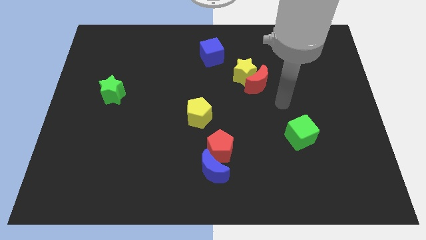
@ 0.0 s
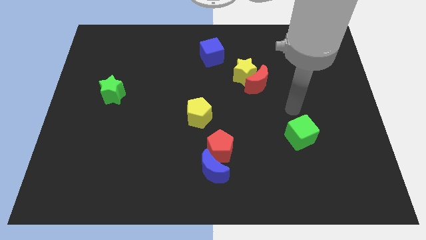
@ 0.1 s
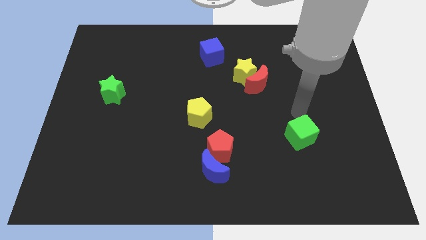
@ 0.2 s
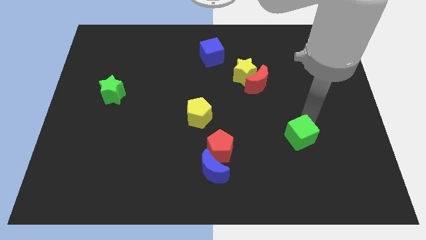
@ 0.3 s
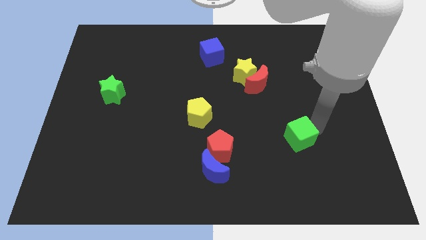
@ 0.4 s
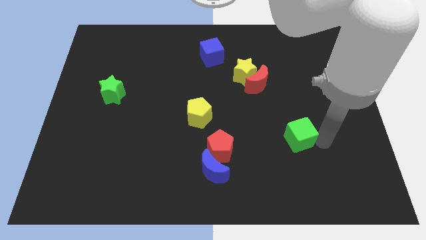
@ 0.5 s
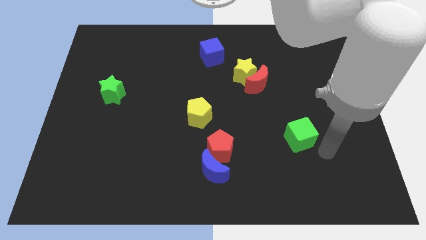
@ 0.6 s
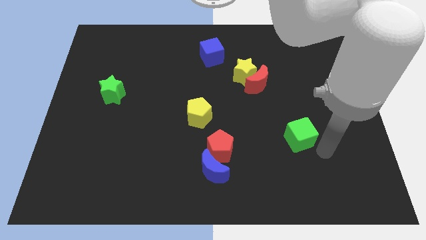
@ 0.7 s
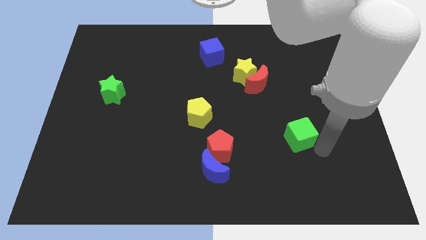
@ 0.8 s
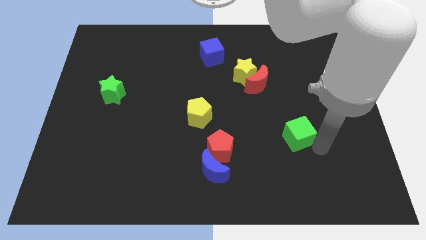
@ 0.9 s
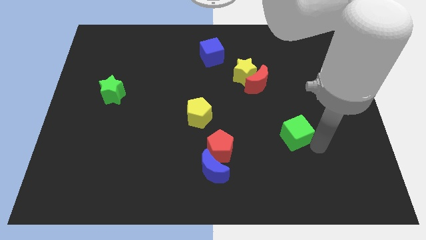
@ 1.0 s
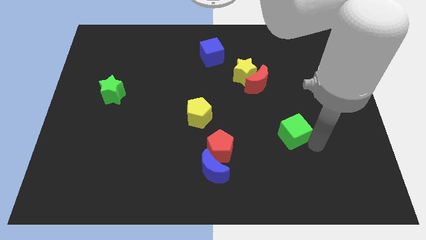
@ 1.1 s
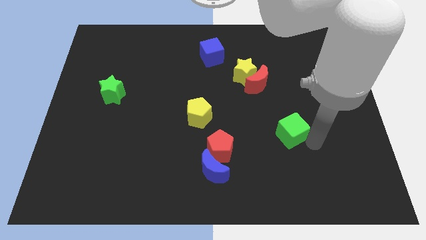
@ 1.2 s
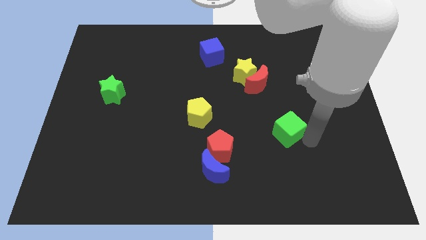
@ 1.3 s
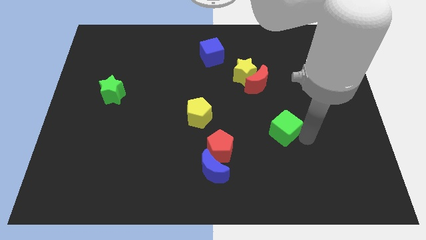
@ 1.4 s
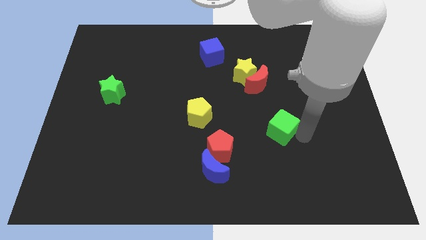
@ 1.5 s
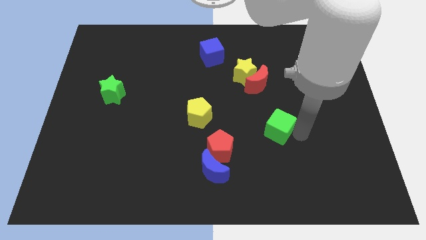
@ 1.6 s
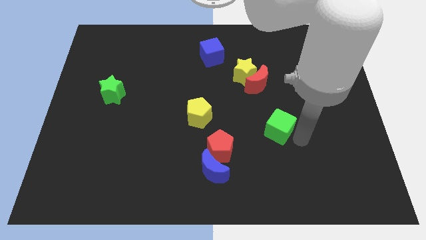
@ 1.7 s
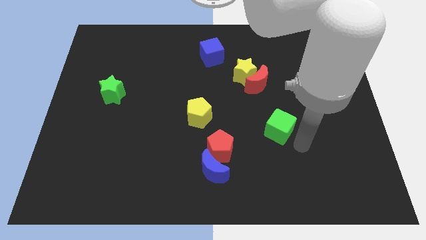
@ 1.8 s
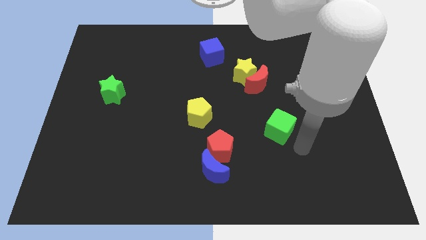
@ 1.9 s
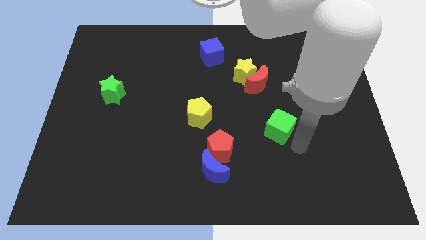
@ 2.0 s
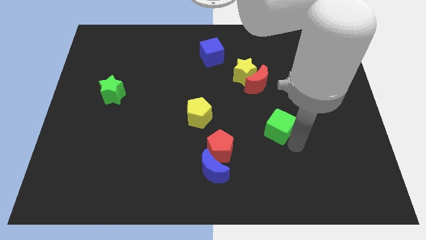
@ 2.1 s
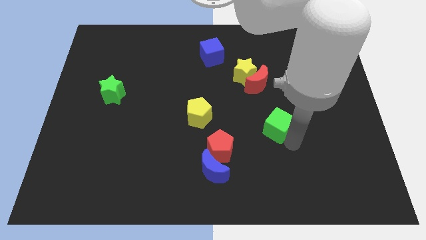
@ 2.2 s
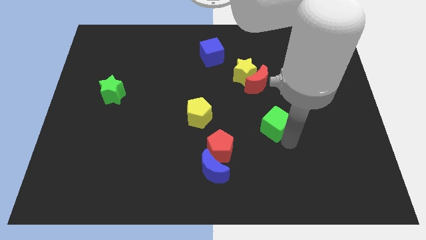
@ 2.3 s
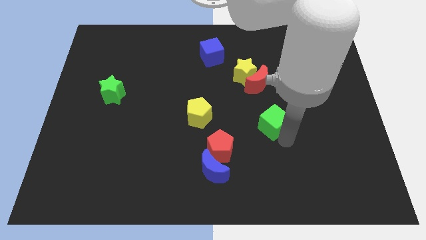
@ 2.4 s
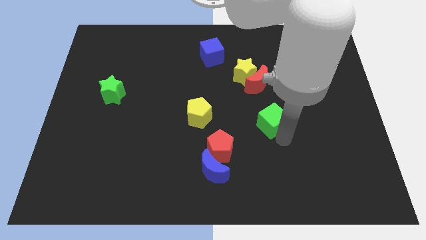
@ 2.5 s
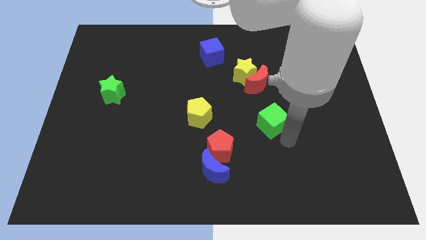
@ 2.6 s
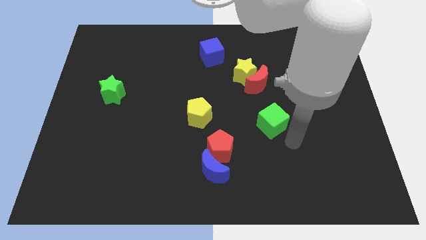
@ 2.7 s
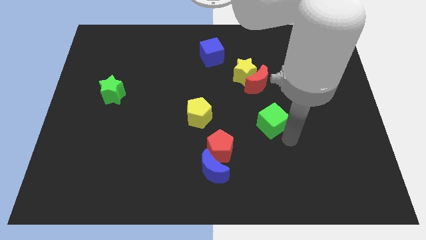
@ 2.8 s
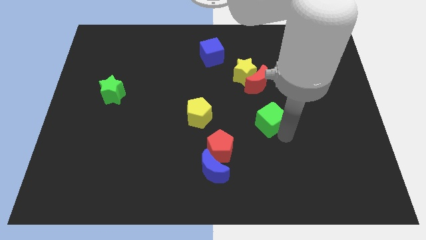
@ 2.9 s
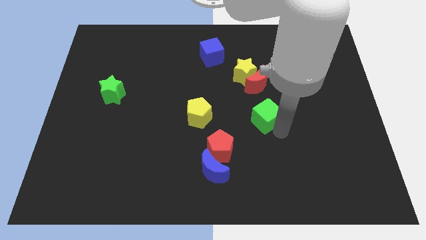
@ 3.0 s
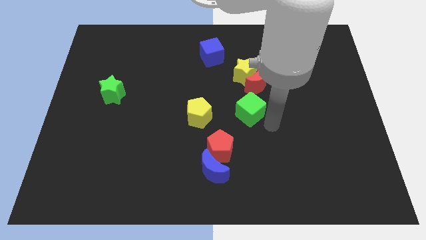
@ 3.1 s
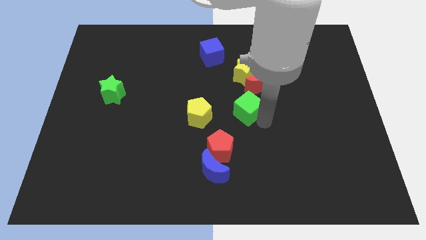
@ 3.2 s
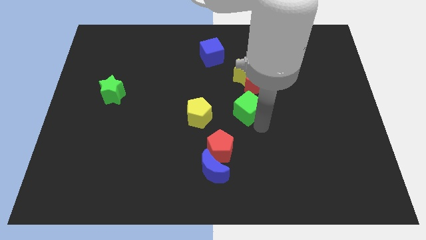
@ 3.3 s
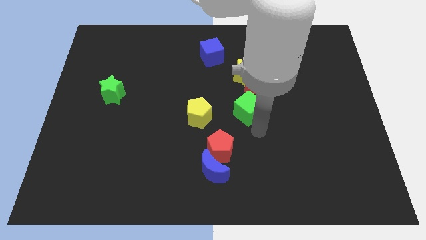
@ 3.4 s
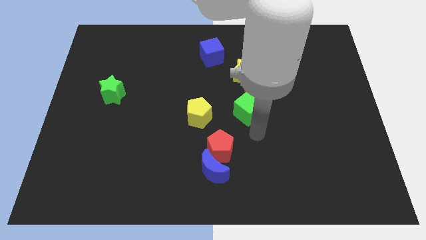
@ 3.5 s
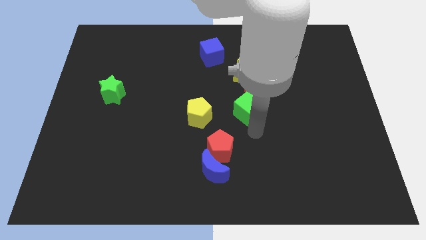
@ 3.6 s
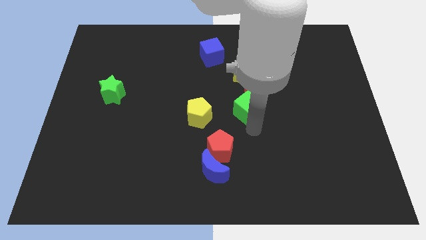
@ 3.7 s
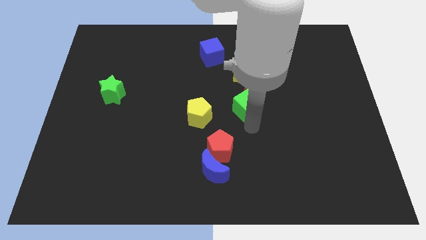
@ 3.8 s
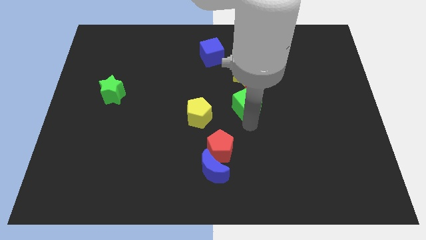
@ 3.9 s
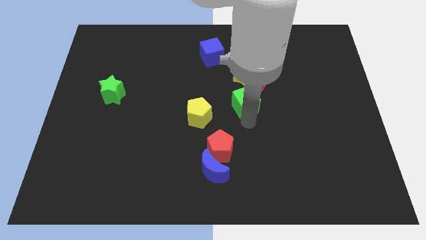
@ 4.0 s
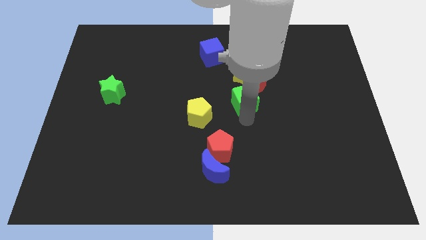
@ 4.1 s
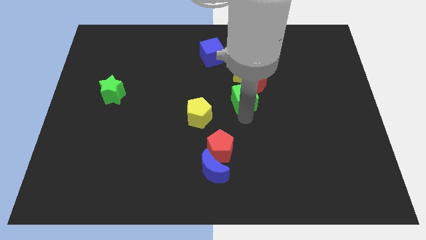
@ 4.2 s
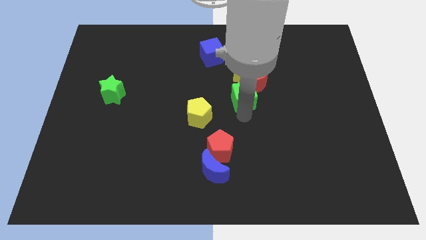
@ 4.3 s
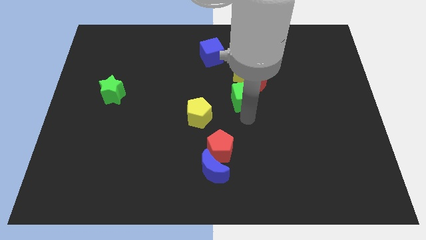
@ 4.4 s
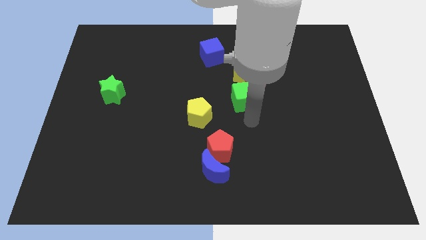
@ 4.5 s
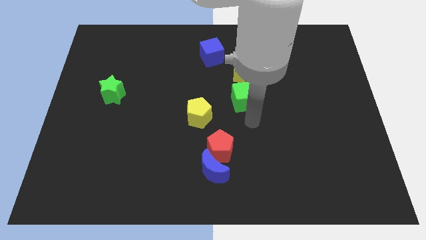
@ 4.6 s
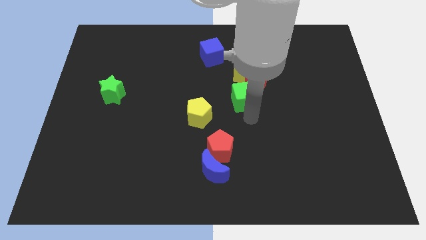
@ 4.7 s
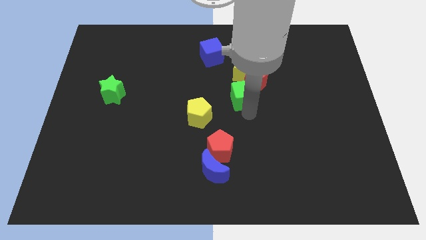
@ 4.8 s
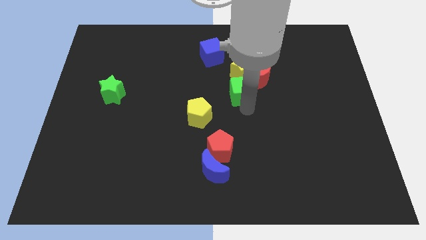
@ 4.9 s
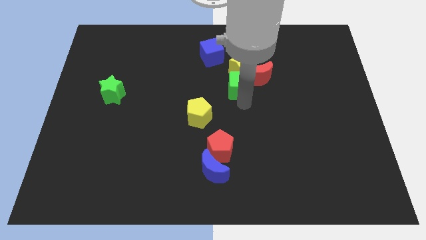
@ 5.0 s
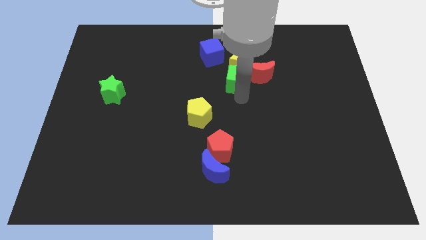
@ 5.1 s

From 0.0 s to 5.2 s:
put the green cube close to the yellow star

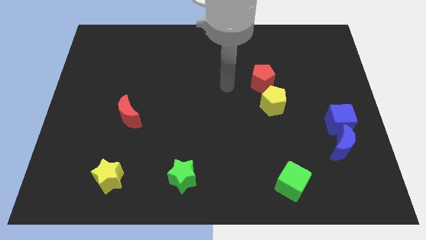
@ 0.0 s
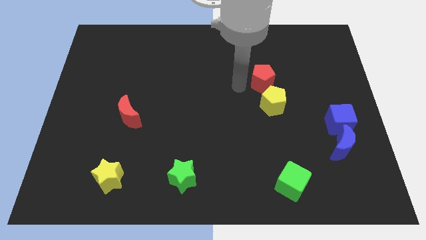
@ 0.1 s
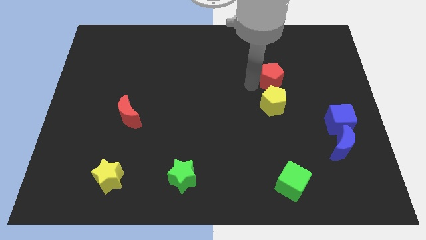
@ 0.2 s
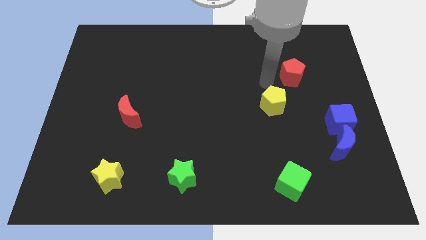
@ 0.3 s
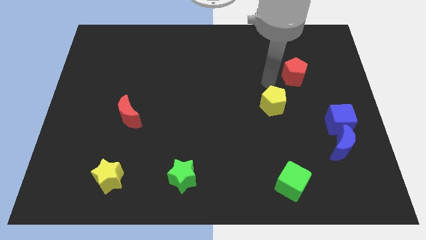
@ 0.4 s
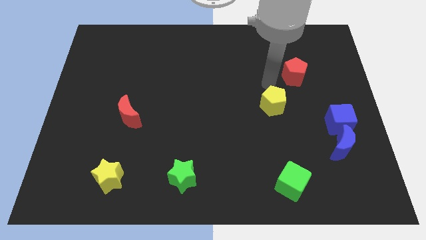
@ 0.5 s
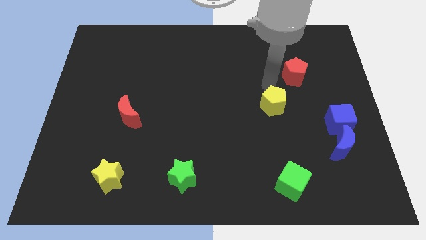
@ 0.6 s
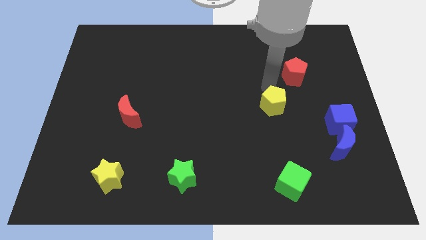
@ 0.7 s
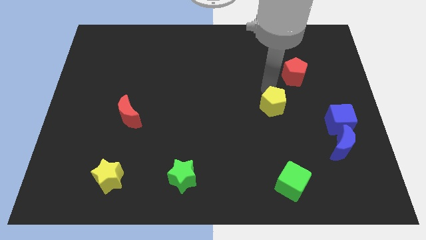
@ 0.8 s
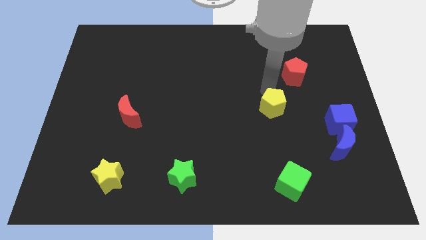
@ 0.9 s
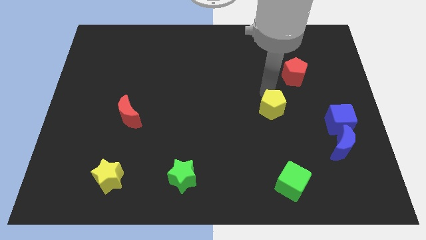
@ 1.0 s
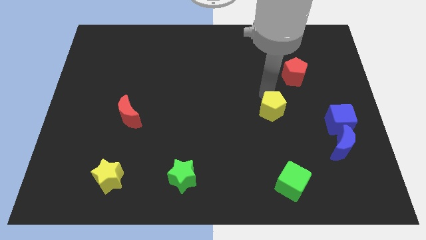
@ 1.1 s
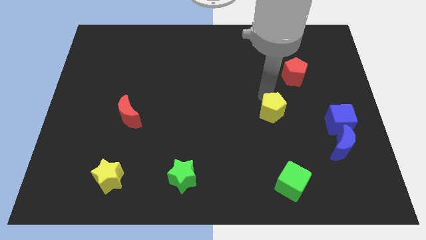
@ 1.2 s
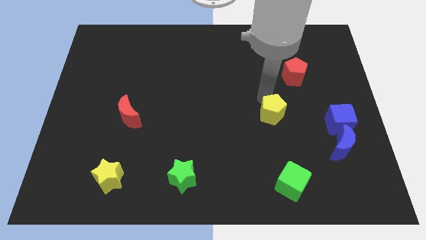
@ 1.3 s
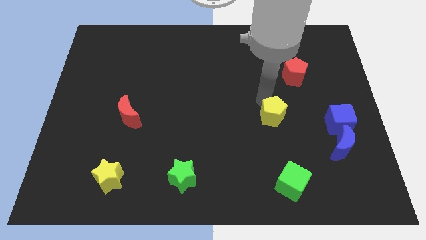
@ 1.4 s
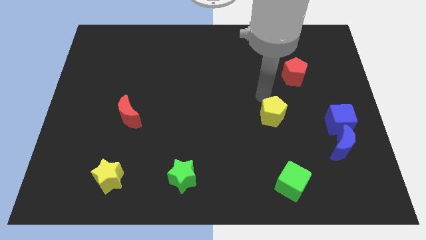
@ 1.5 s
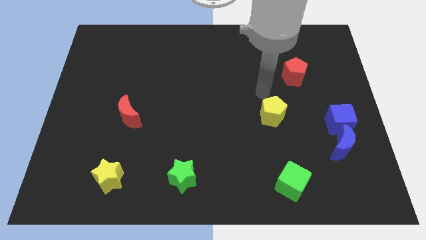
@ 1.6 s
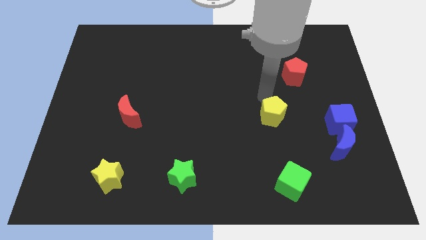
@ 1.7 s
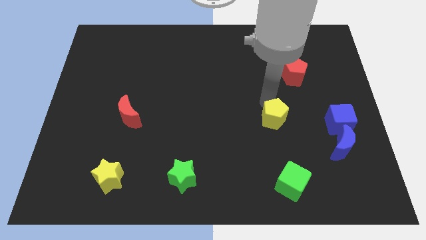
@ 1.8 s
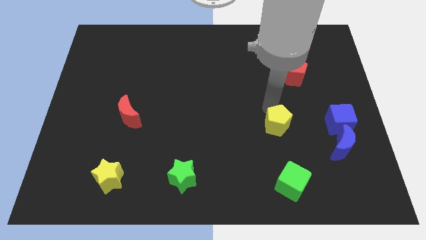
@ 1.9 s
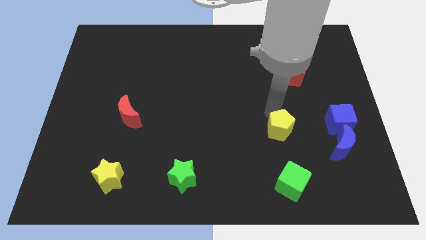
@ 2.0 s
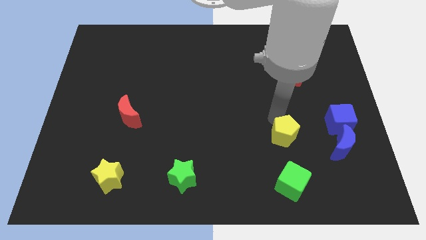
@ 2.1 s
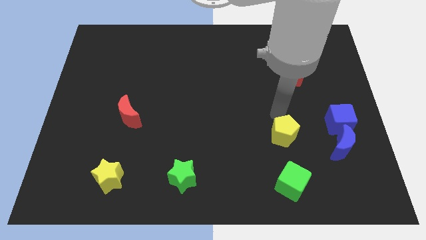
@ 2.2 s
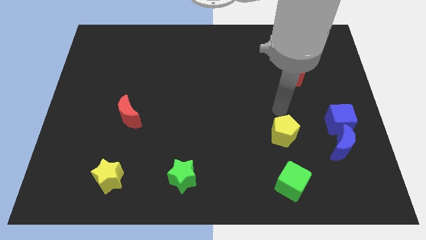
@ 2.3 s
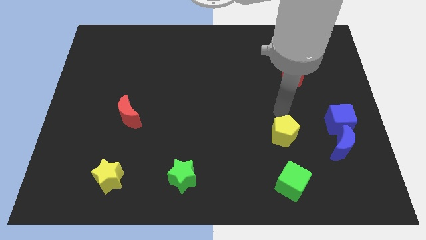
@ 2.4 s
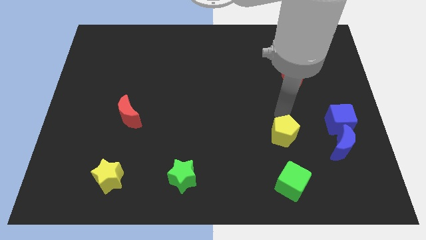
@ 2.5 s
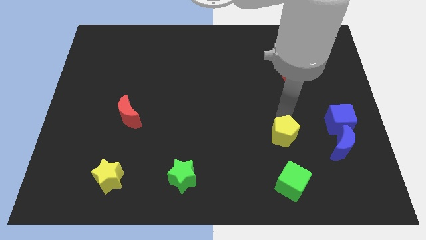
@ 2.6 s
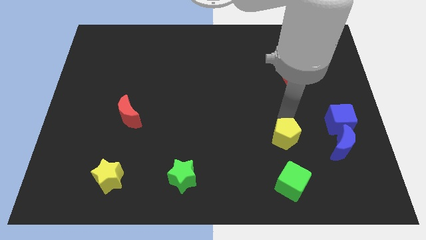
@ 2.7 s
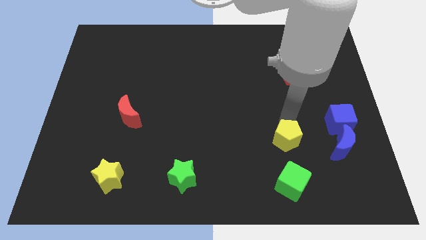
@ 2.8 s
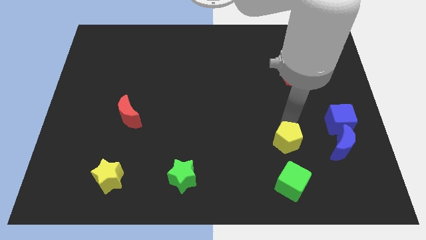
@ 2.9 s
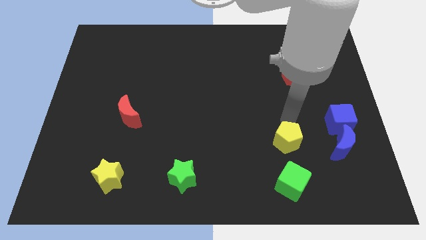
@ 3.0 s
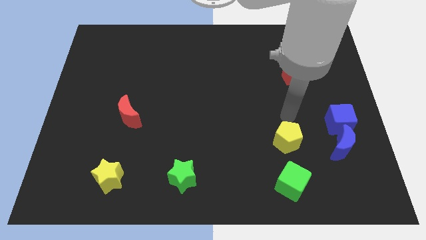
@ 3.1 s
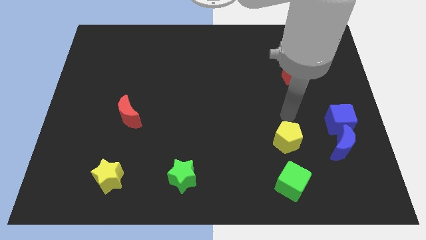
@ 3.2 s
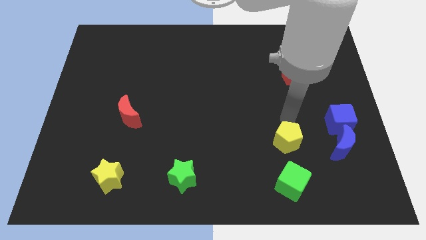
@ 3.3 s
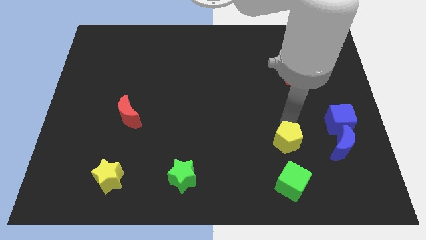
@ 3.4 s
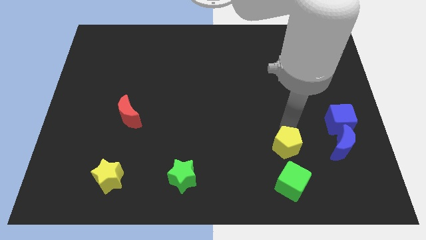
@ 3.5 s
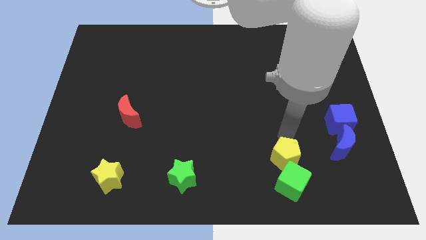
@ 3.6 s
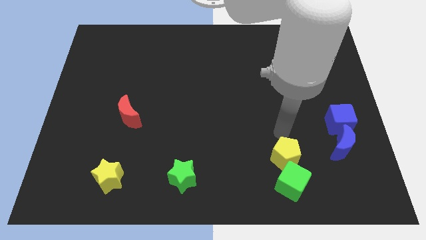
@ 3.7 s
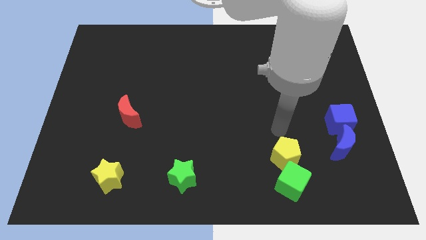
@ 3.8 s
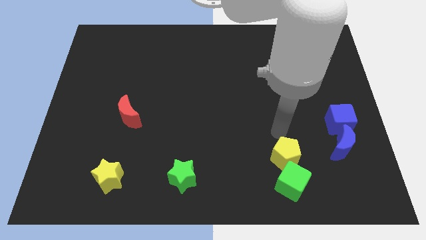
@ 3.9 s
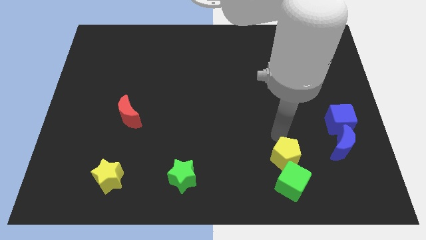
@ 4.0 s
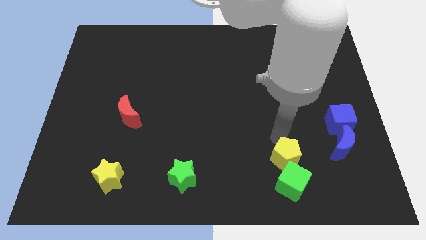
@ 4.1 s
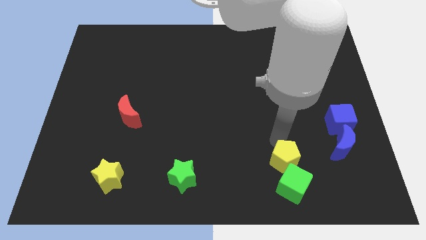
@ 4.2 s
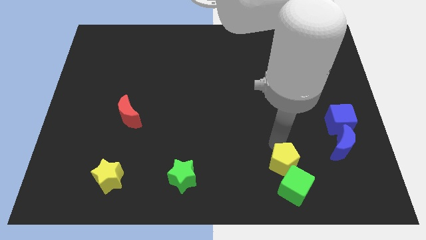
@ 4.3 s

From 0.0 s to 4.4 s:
push the yellow pentagon towards the green cube
